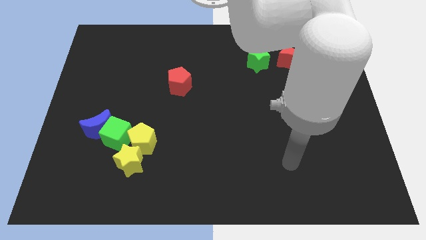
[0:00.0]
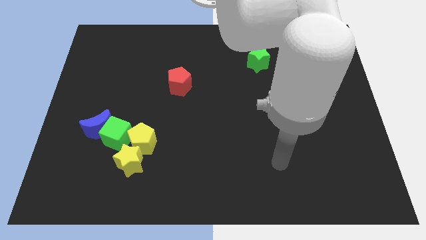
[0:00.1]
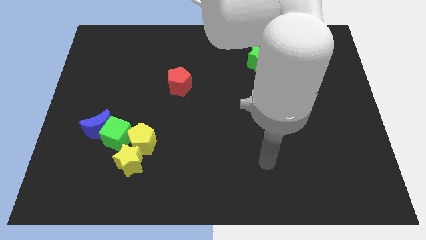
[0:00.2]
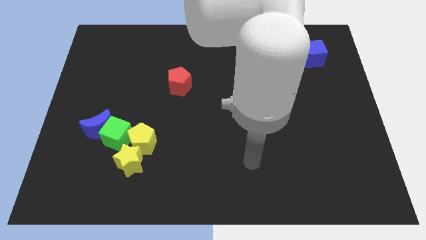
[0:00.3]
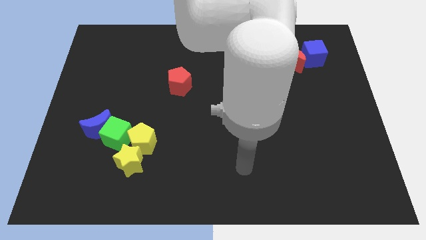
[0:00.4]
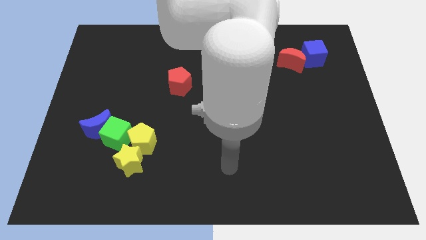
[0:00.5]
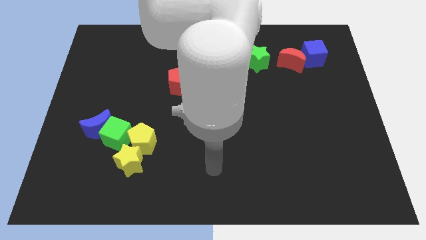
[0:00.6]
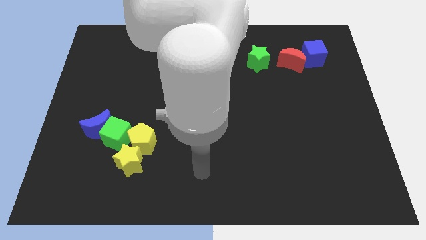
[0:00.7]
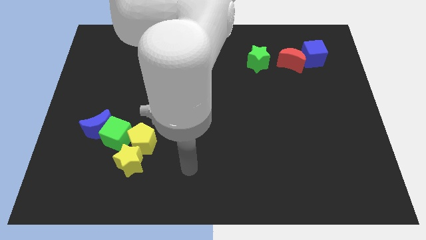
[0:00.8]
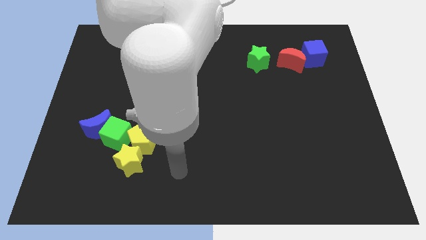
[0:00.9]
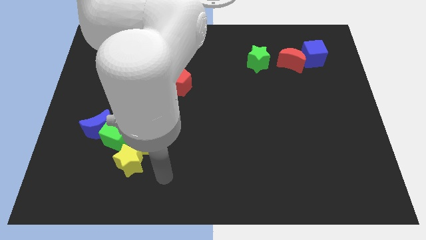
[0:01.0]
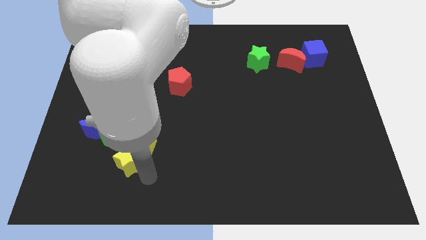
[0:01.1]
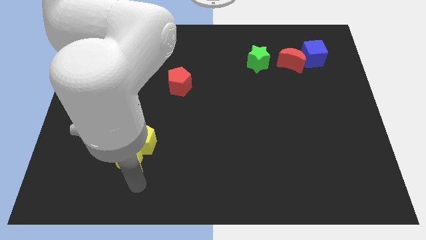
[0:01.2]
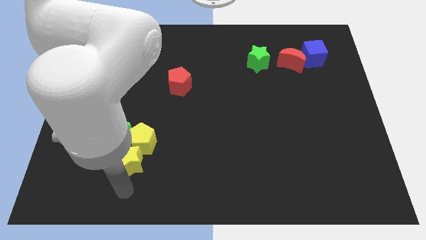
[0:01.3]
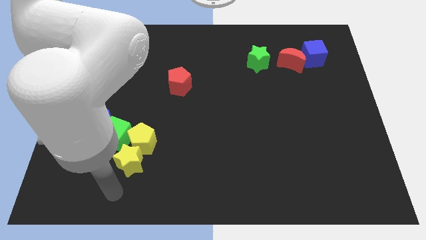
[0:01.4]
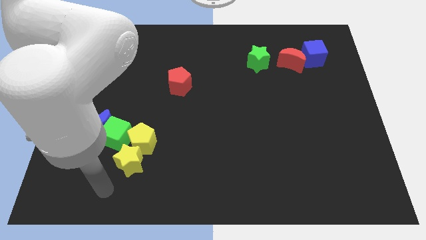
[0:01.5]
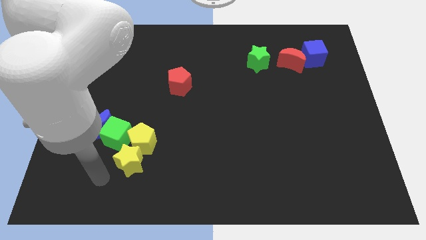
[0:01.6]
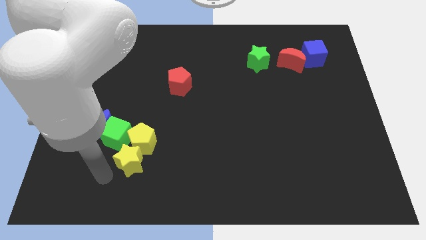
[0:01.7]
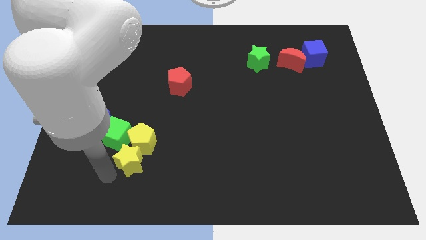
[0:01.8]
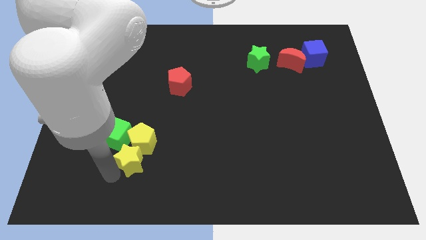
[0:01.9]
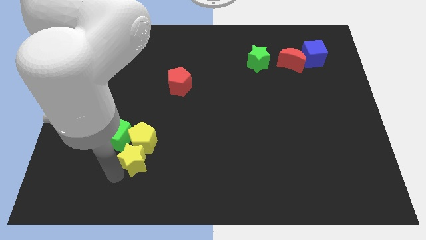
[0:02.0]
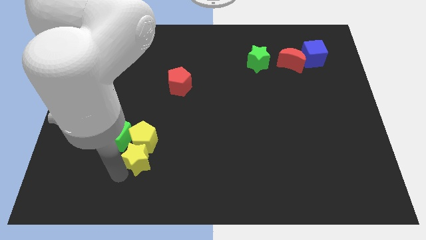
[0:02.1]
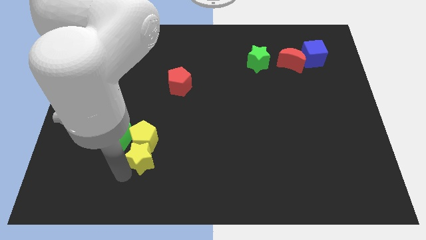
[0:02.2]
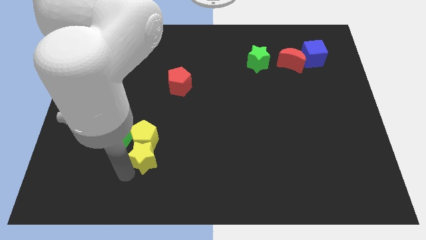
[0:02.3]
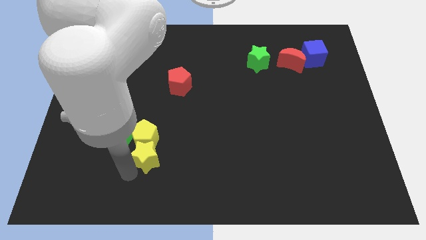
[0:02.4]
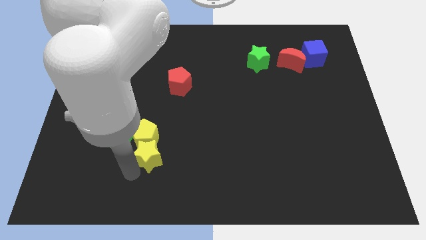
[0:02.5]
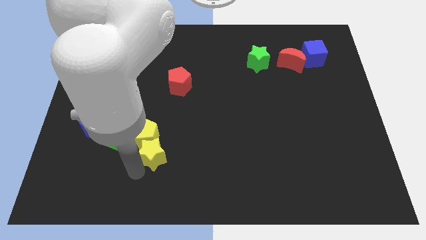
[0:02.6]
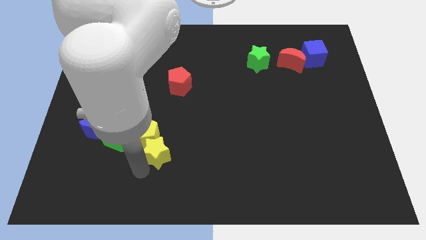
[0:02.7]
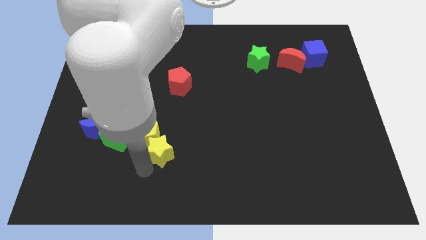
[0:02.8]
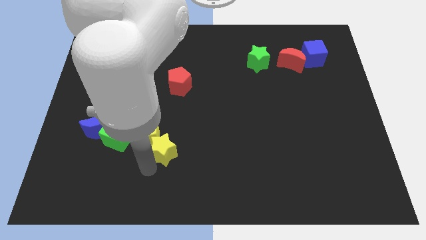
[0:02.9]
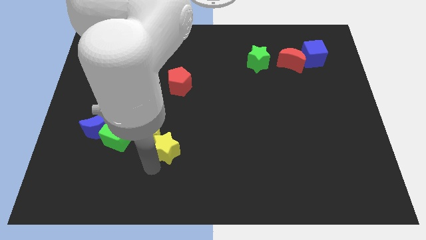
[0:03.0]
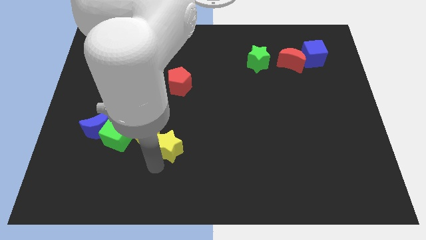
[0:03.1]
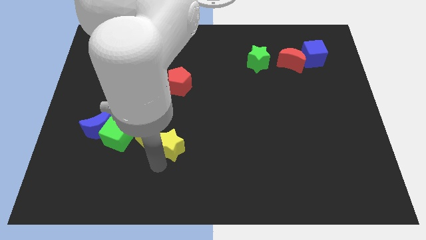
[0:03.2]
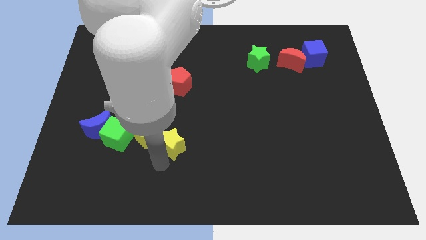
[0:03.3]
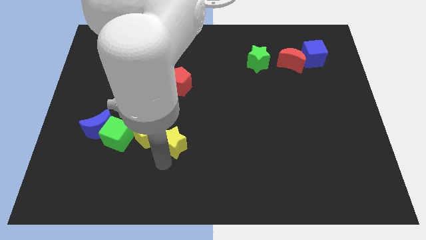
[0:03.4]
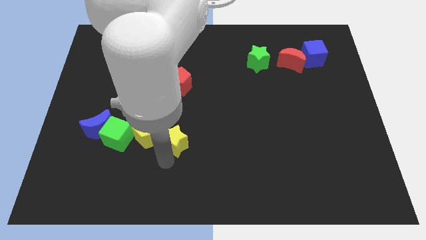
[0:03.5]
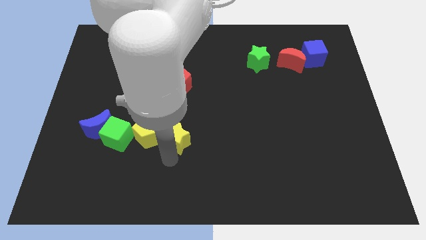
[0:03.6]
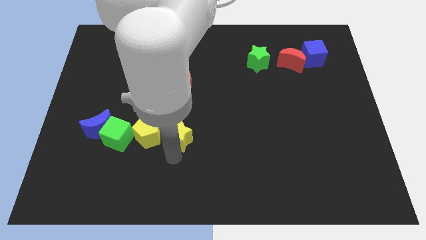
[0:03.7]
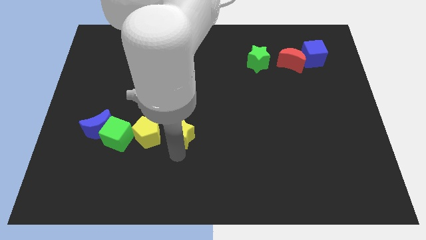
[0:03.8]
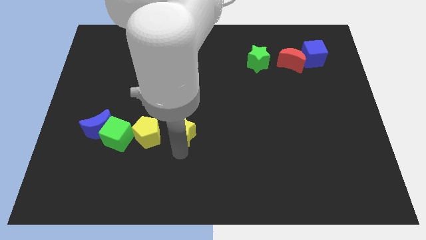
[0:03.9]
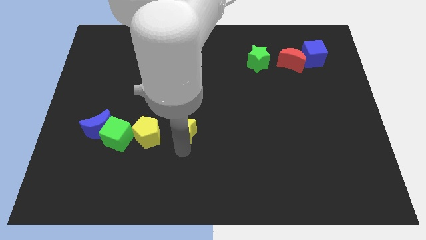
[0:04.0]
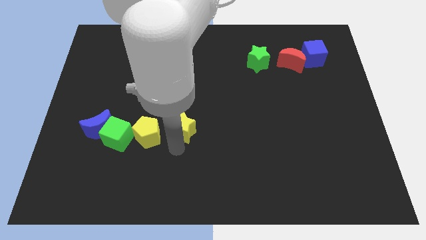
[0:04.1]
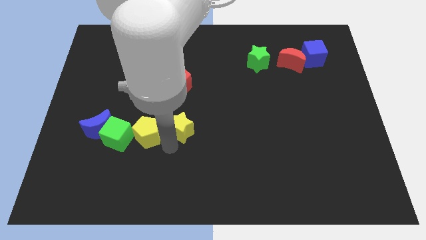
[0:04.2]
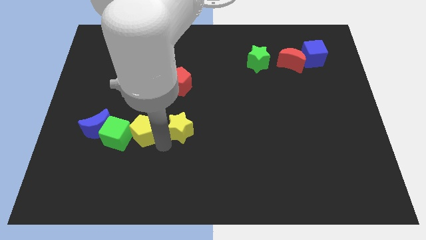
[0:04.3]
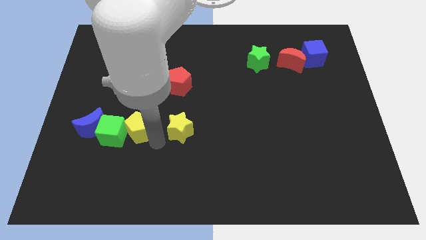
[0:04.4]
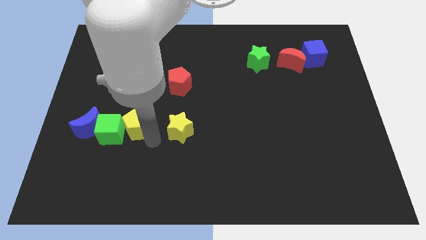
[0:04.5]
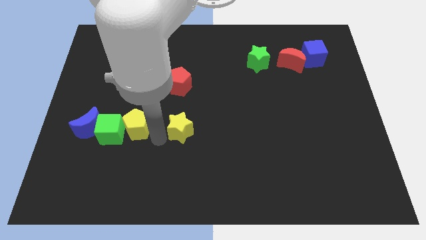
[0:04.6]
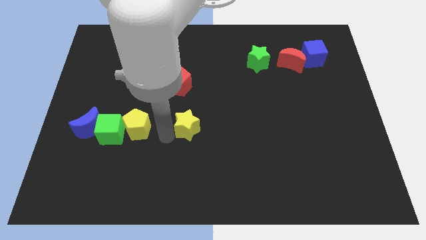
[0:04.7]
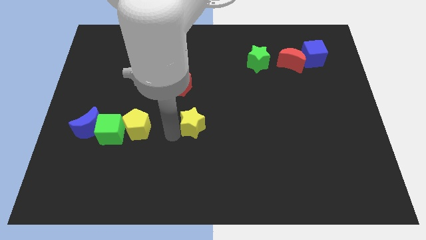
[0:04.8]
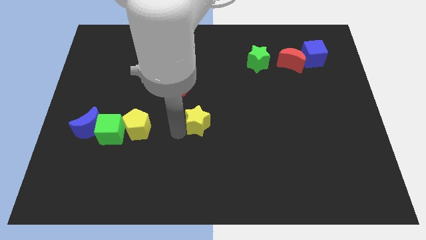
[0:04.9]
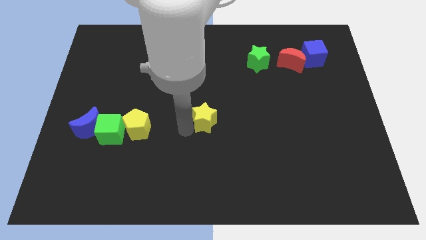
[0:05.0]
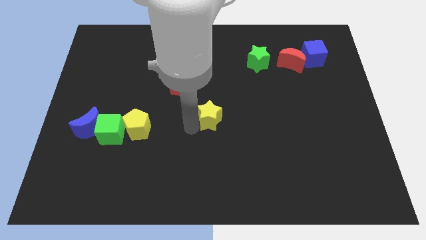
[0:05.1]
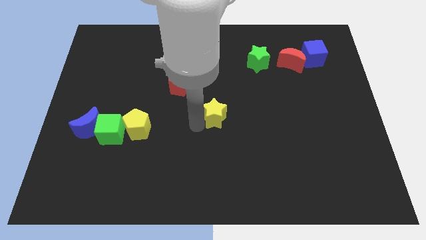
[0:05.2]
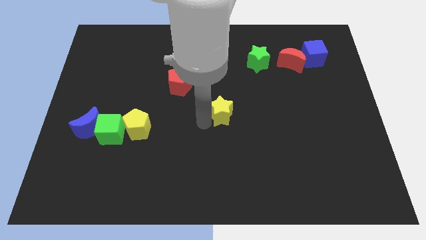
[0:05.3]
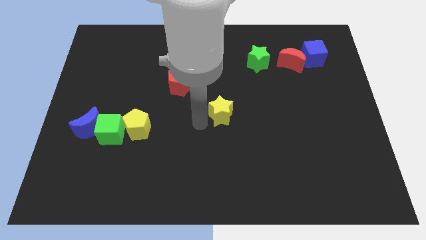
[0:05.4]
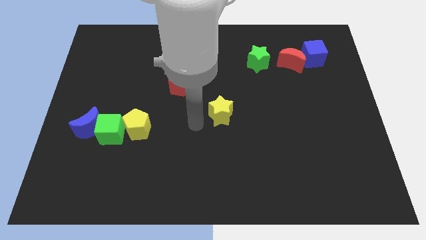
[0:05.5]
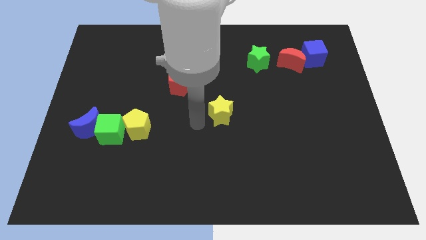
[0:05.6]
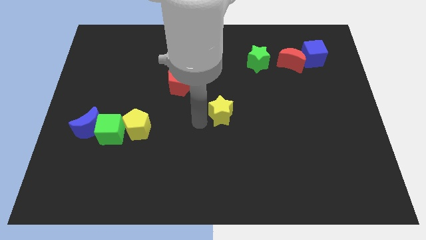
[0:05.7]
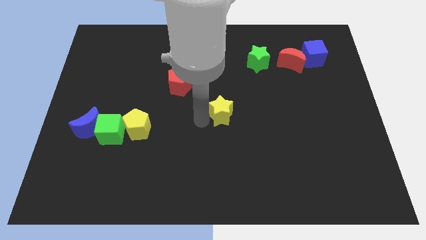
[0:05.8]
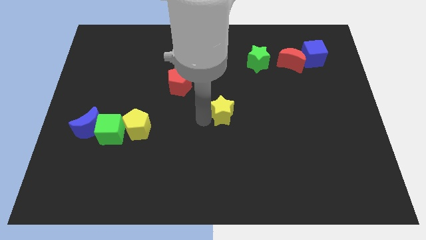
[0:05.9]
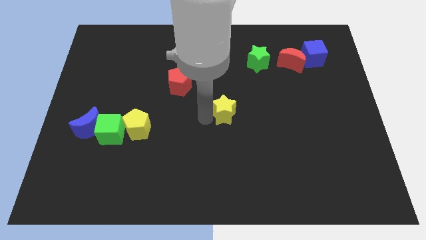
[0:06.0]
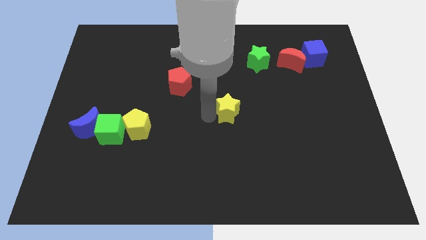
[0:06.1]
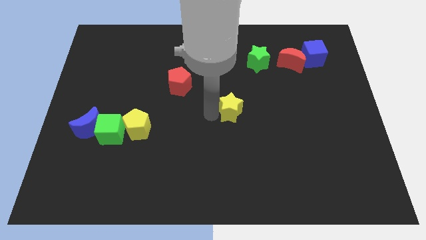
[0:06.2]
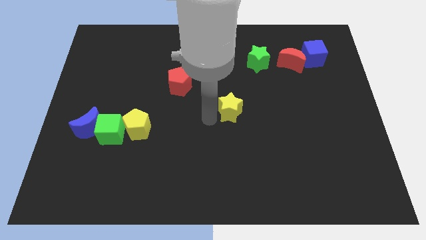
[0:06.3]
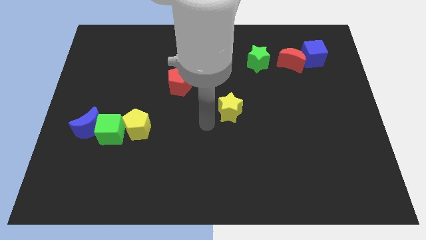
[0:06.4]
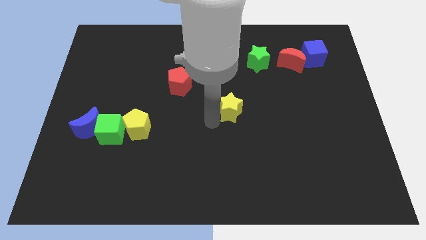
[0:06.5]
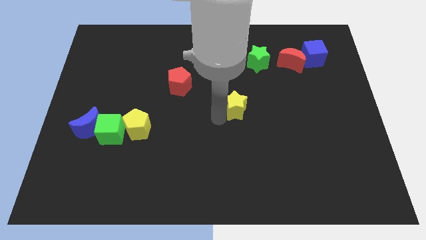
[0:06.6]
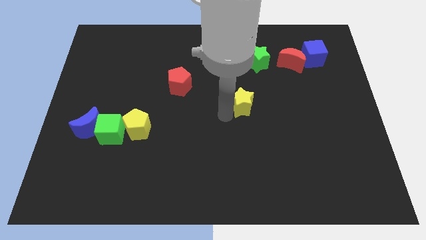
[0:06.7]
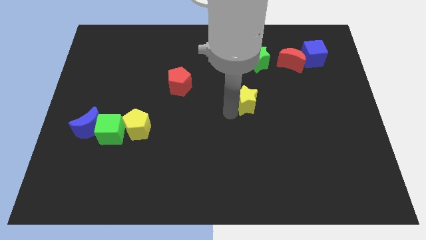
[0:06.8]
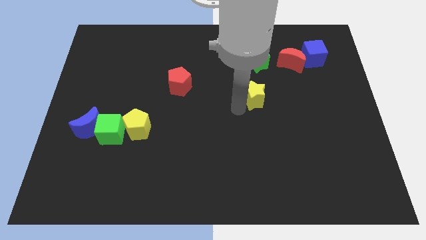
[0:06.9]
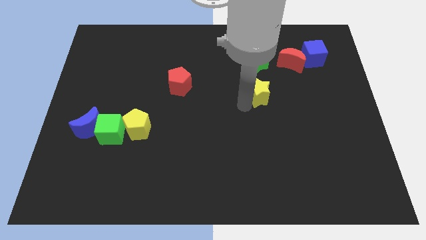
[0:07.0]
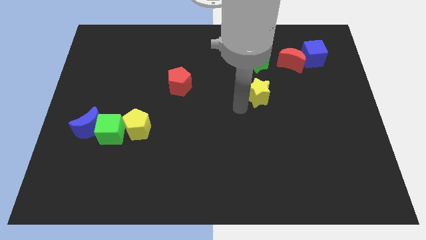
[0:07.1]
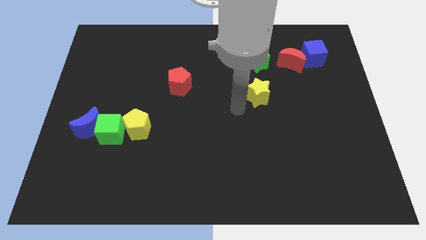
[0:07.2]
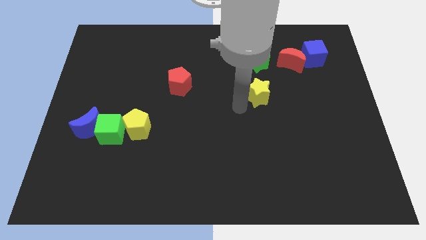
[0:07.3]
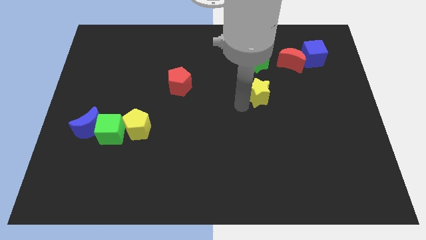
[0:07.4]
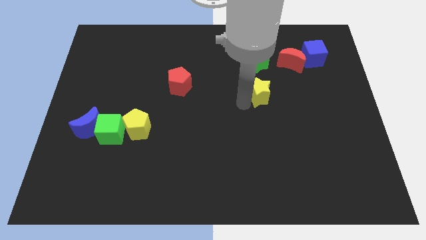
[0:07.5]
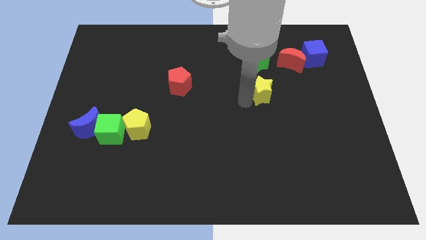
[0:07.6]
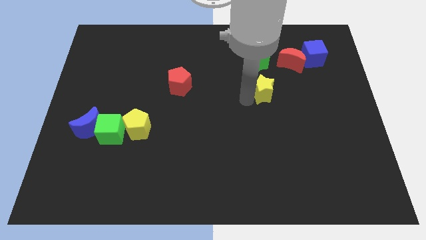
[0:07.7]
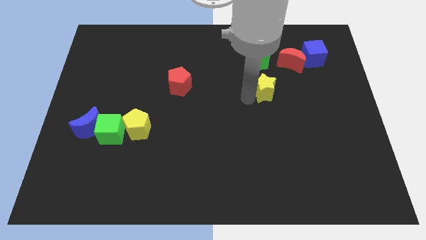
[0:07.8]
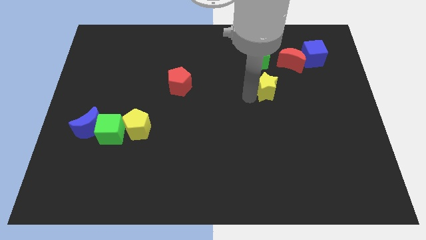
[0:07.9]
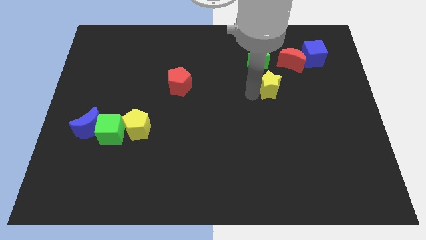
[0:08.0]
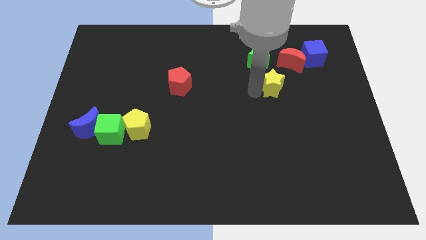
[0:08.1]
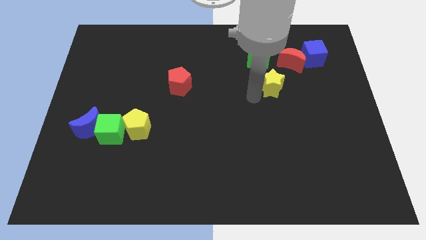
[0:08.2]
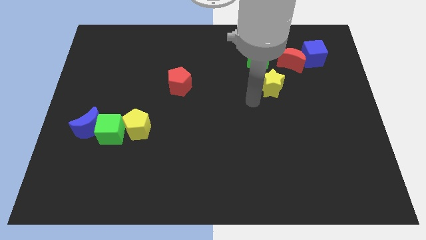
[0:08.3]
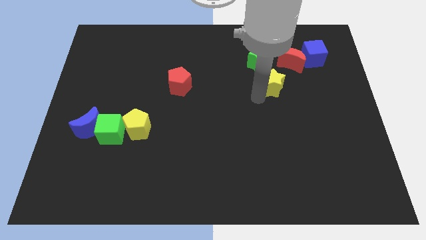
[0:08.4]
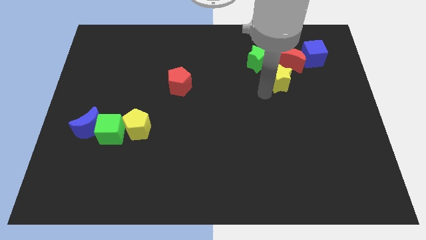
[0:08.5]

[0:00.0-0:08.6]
move the yellow star to the bottom left of the blue cube
